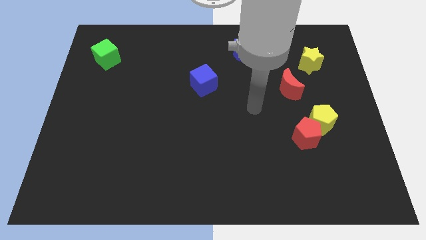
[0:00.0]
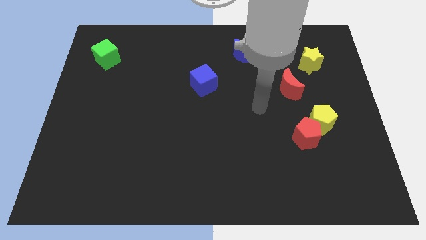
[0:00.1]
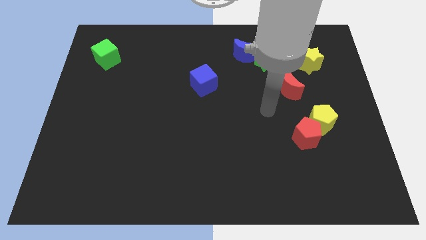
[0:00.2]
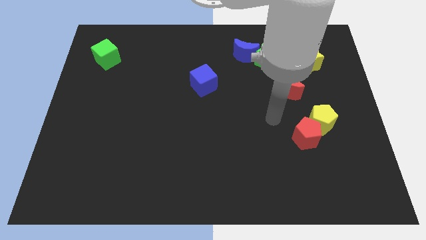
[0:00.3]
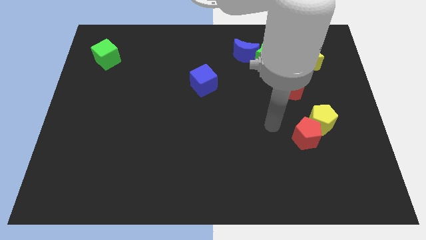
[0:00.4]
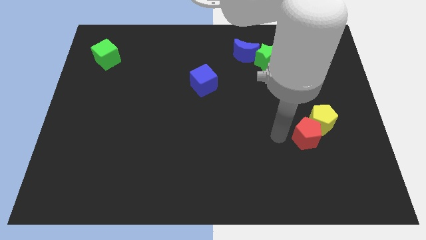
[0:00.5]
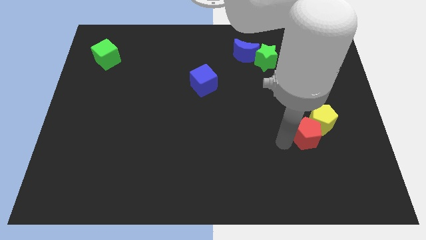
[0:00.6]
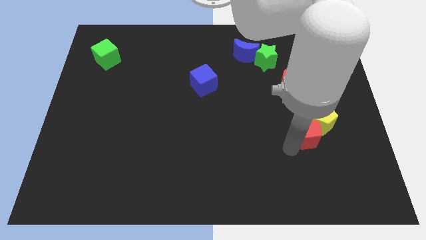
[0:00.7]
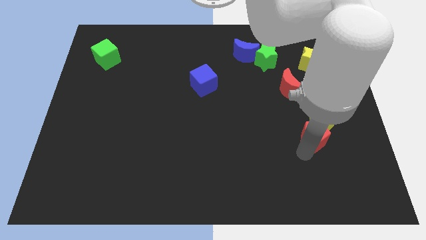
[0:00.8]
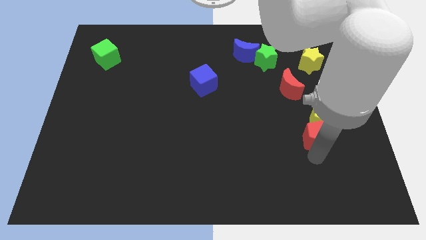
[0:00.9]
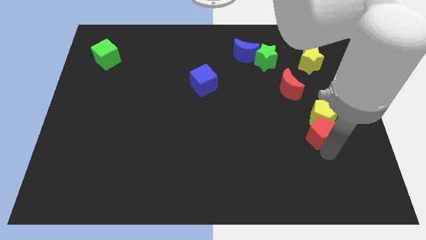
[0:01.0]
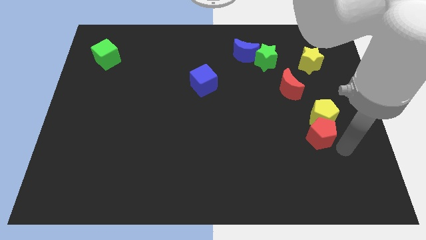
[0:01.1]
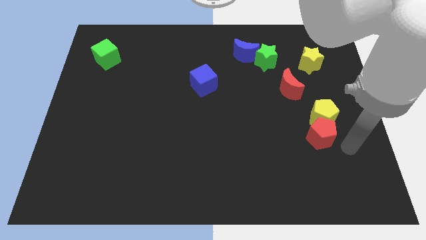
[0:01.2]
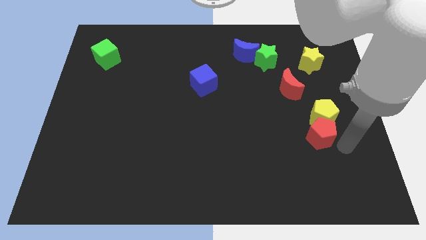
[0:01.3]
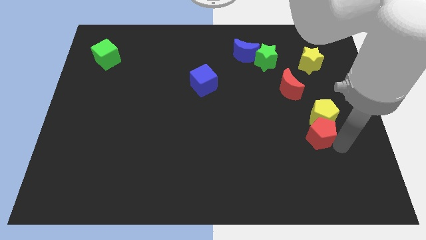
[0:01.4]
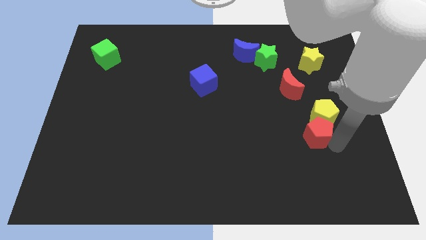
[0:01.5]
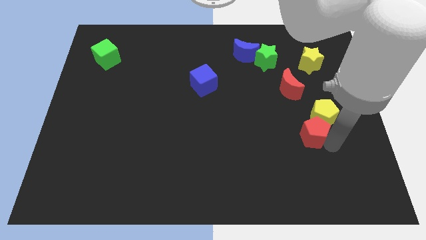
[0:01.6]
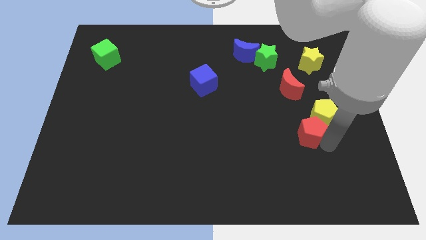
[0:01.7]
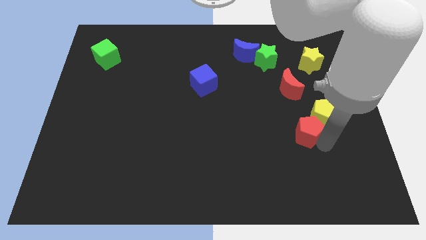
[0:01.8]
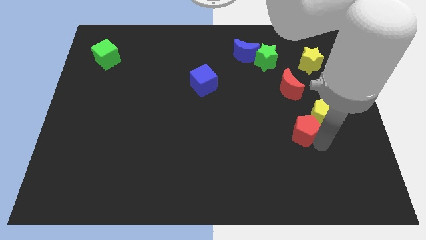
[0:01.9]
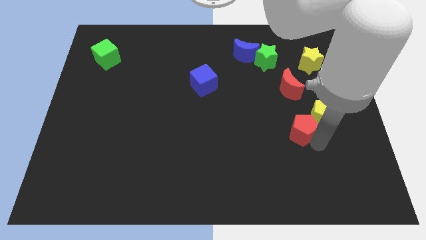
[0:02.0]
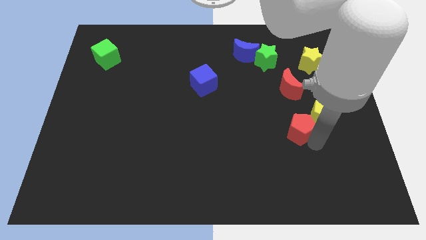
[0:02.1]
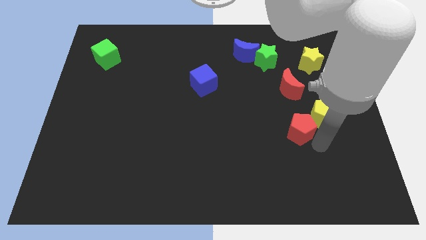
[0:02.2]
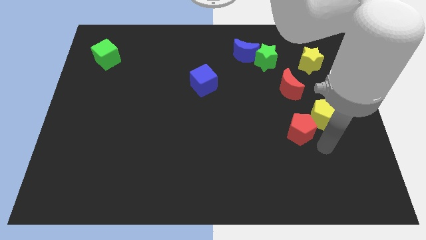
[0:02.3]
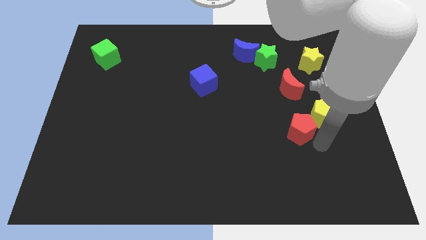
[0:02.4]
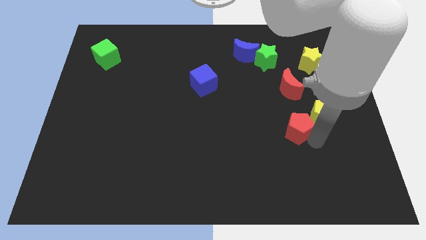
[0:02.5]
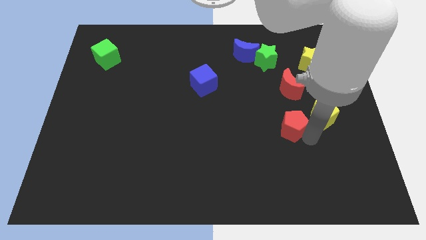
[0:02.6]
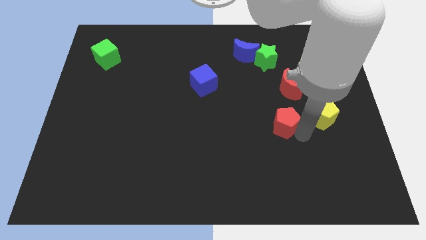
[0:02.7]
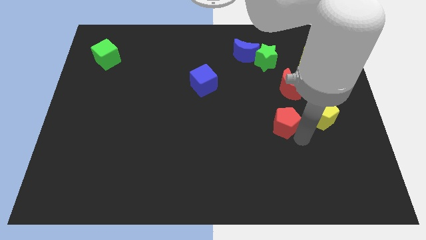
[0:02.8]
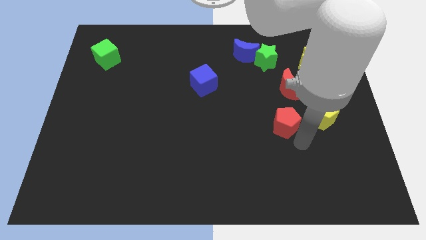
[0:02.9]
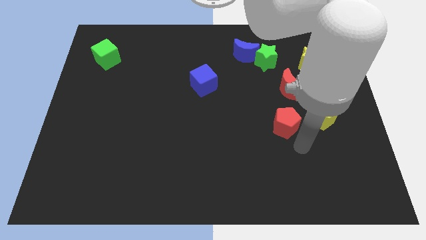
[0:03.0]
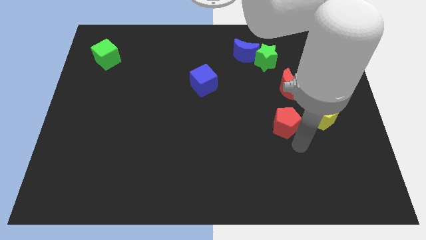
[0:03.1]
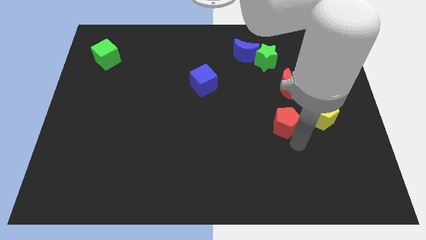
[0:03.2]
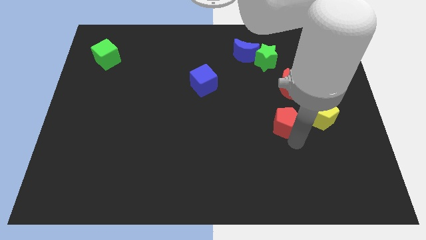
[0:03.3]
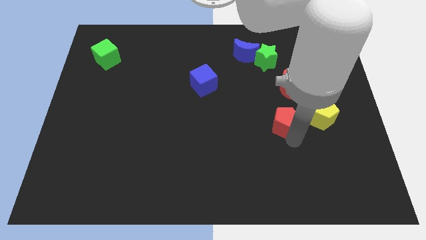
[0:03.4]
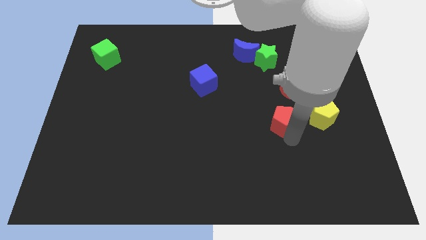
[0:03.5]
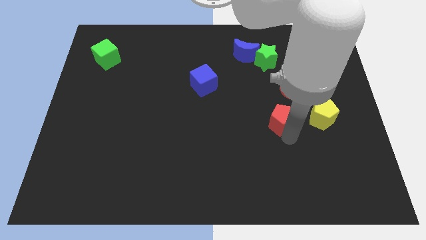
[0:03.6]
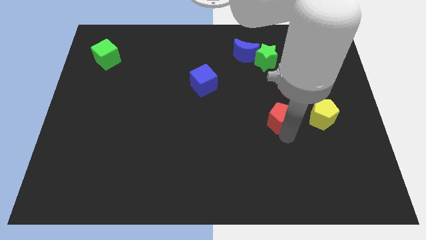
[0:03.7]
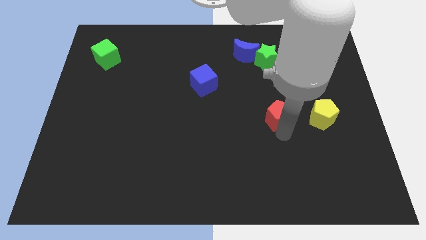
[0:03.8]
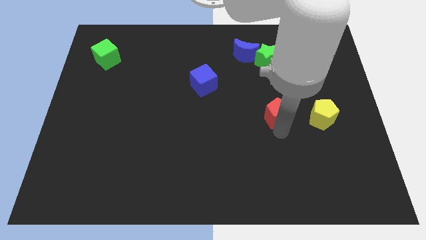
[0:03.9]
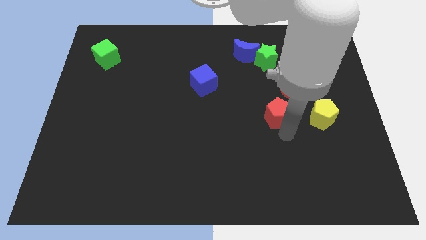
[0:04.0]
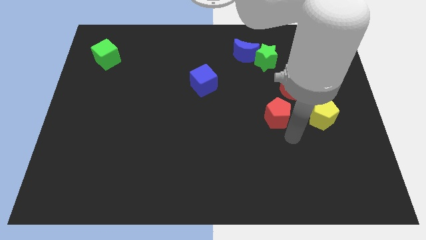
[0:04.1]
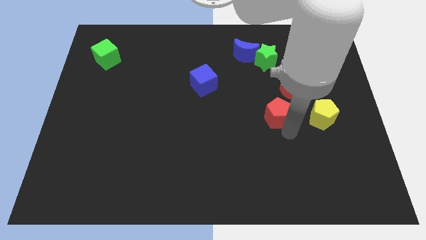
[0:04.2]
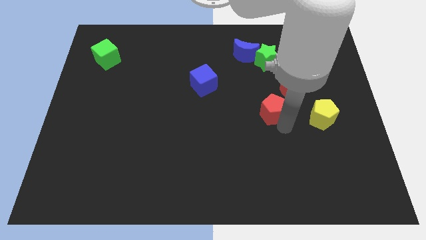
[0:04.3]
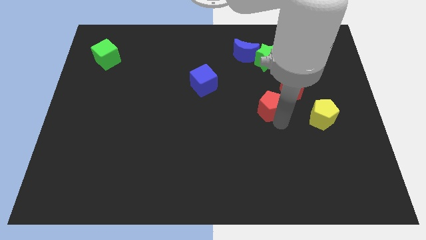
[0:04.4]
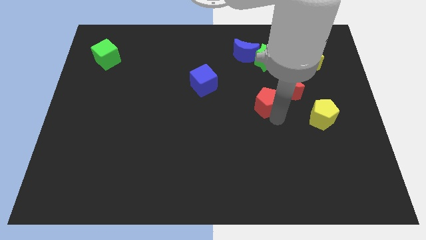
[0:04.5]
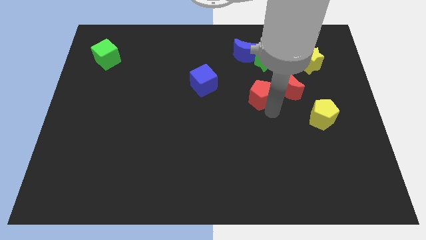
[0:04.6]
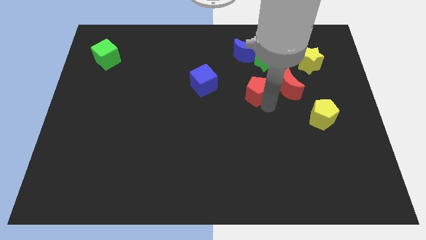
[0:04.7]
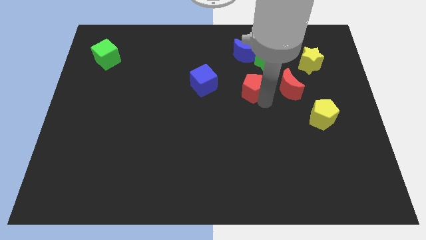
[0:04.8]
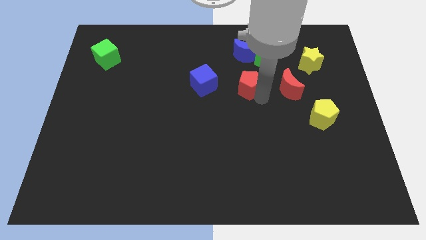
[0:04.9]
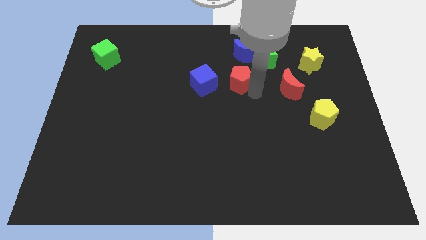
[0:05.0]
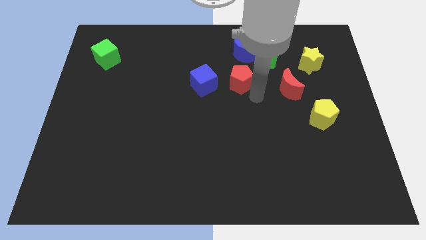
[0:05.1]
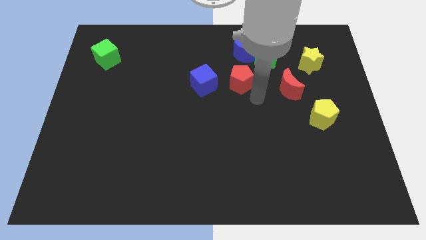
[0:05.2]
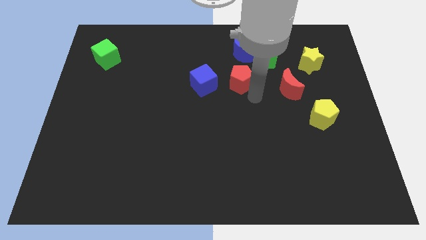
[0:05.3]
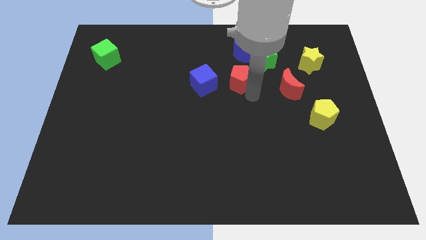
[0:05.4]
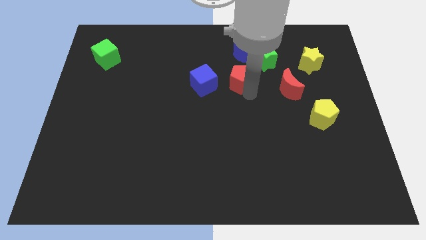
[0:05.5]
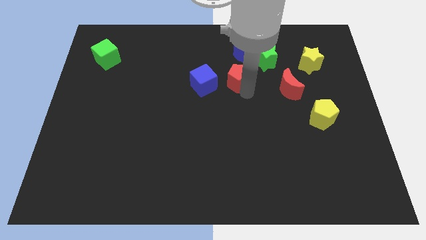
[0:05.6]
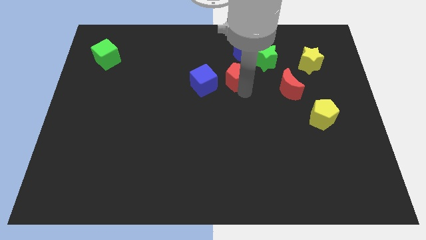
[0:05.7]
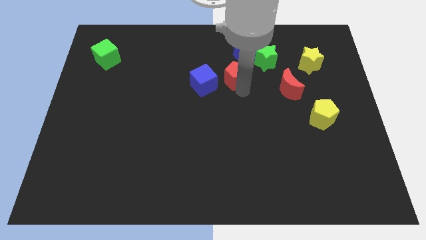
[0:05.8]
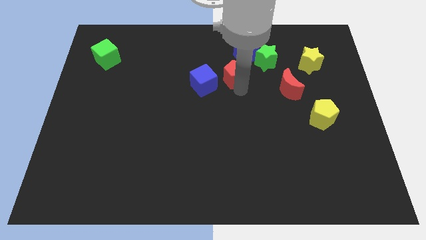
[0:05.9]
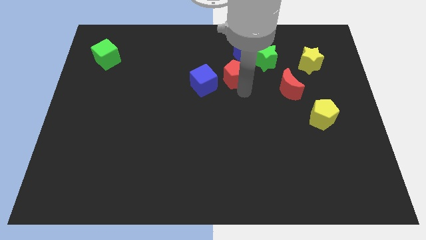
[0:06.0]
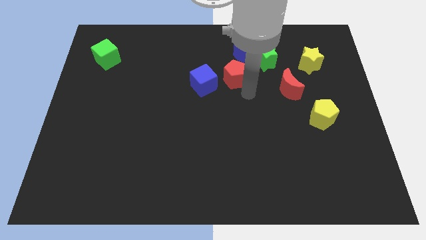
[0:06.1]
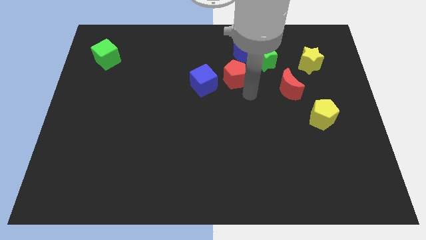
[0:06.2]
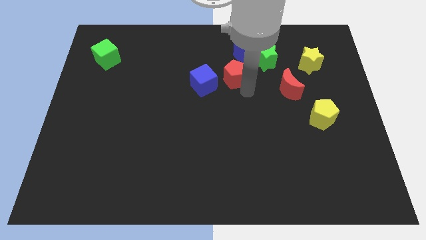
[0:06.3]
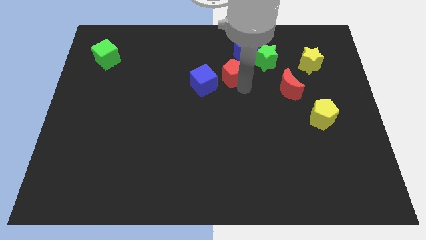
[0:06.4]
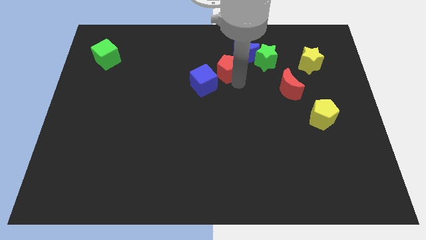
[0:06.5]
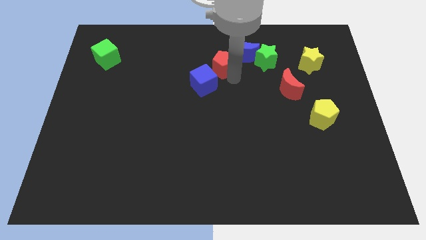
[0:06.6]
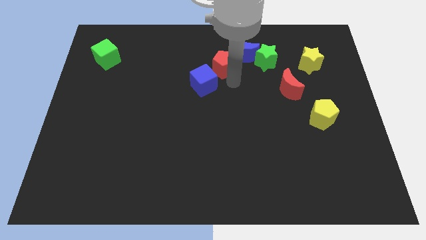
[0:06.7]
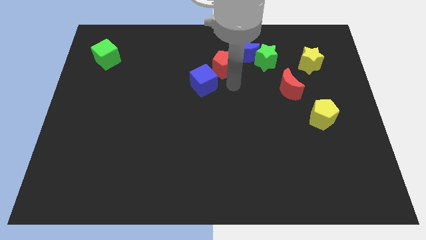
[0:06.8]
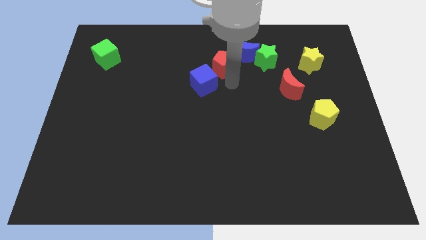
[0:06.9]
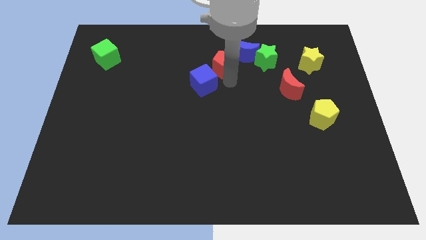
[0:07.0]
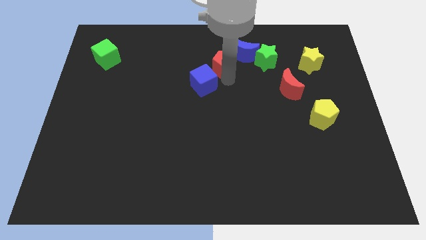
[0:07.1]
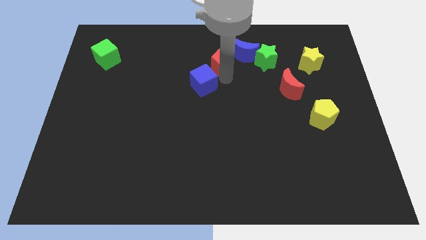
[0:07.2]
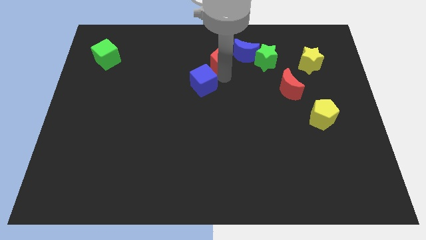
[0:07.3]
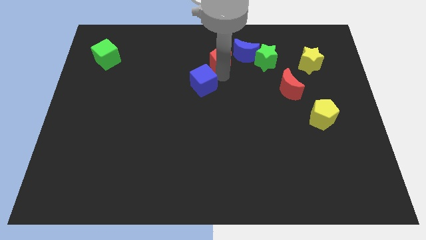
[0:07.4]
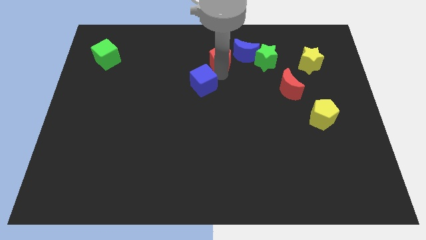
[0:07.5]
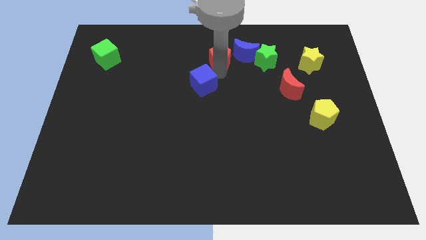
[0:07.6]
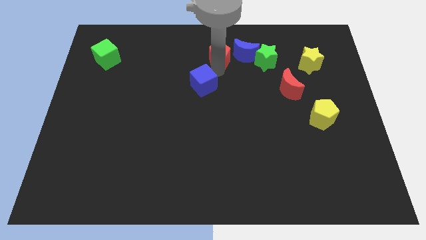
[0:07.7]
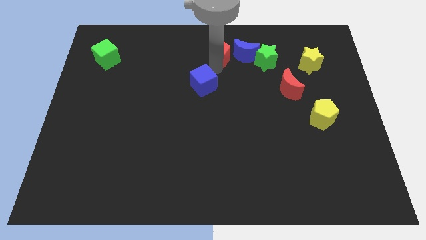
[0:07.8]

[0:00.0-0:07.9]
slide the red pentagon to the top
